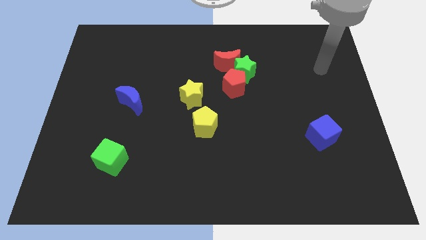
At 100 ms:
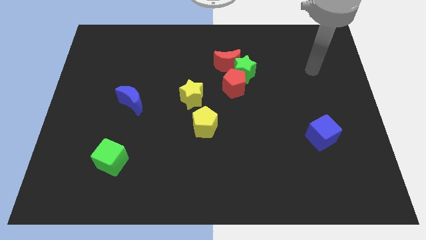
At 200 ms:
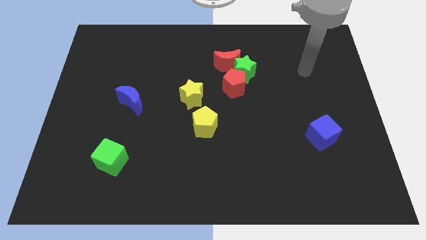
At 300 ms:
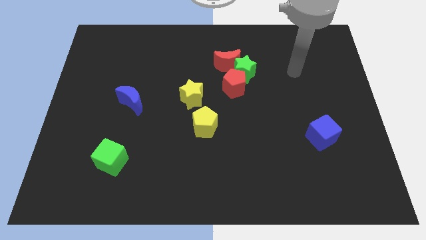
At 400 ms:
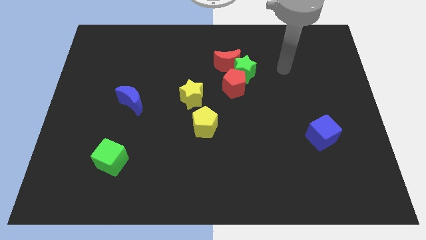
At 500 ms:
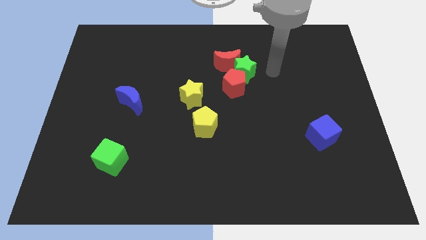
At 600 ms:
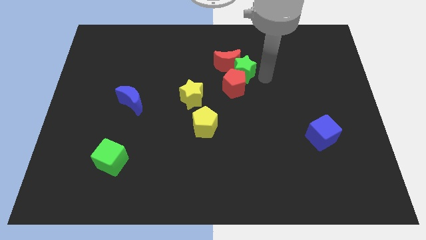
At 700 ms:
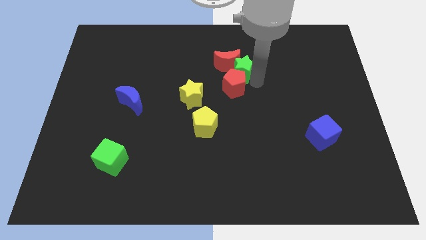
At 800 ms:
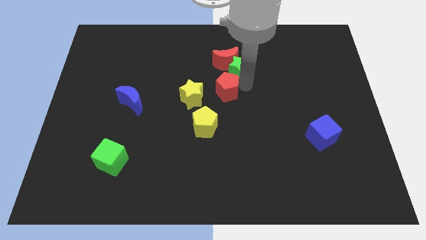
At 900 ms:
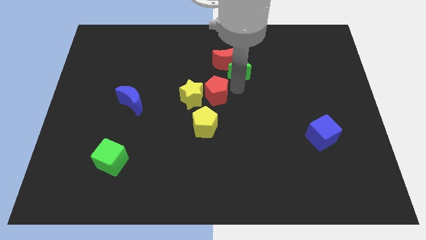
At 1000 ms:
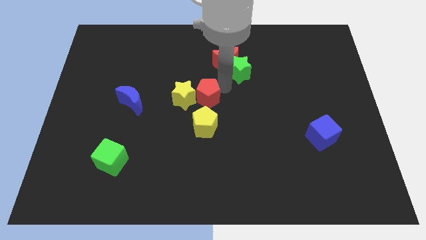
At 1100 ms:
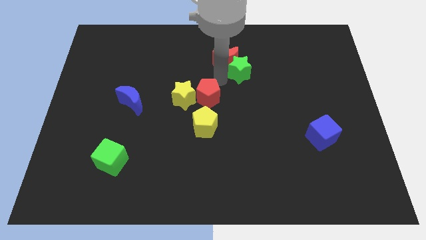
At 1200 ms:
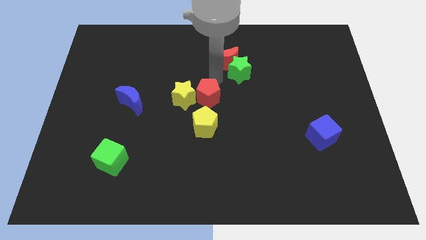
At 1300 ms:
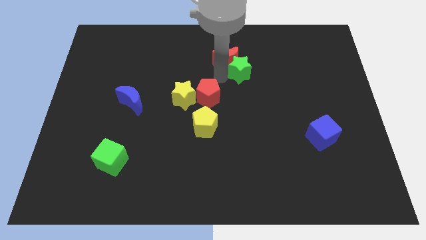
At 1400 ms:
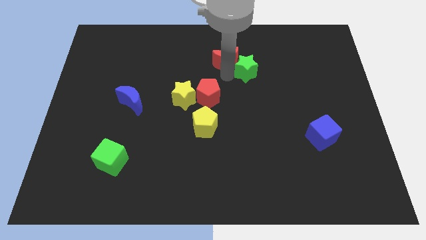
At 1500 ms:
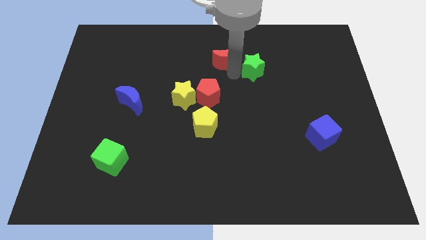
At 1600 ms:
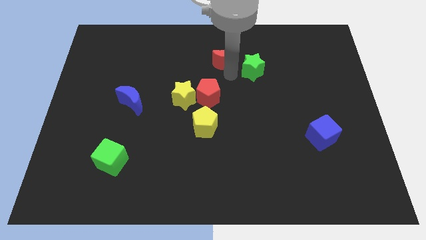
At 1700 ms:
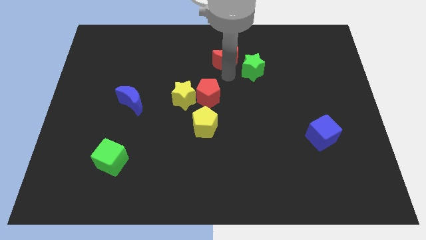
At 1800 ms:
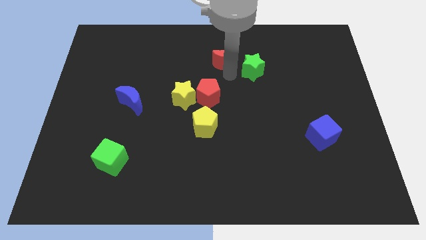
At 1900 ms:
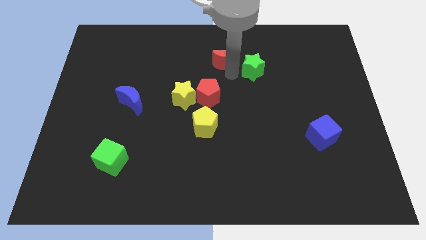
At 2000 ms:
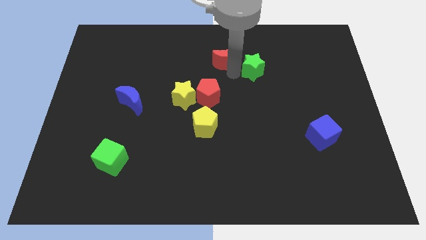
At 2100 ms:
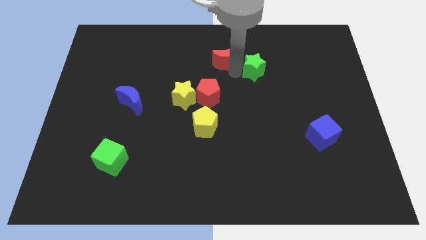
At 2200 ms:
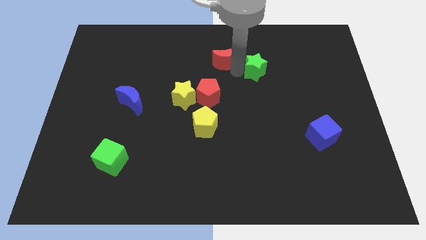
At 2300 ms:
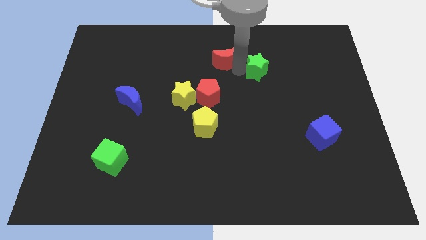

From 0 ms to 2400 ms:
pull the green star apart from the red moon and red pentagon

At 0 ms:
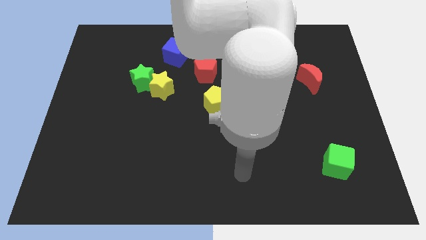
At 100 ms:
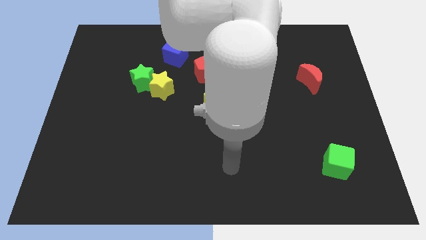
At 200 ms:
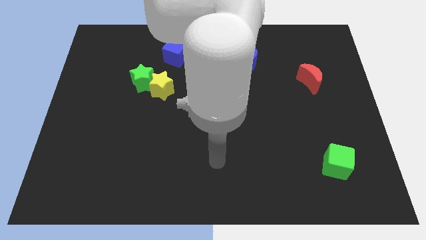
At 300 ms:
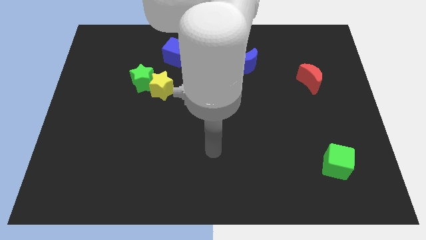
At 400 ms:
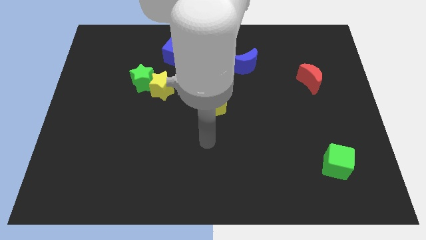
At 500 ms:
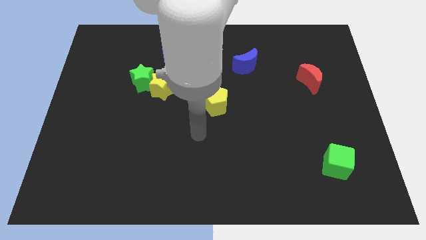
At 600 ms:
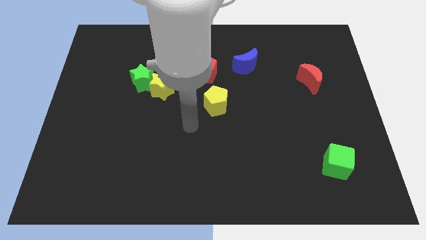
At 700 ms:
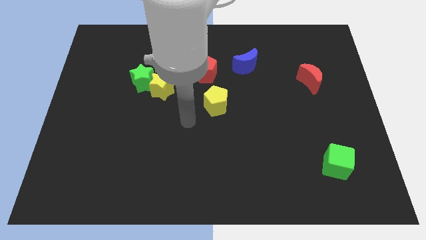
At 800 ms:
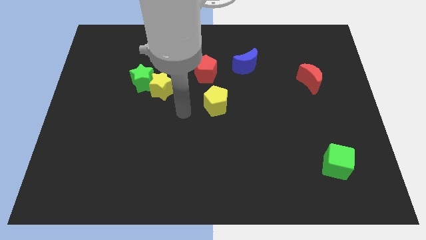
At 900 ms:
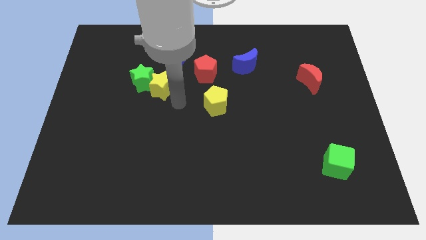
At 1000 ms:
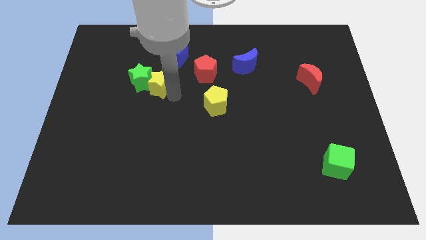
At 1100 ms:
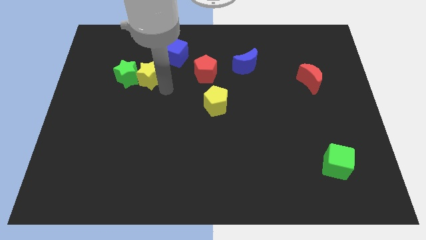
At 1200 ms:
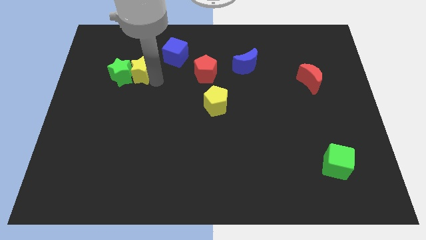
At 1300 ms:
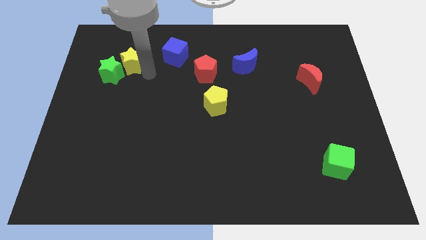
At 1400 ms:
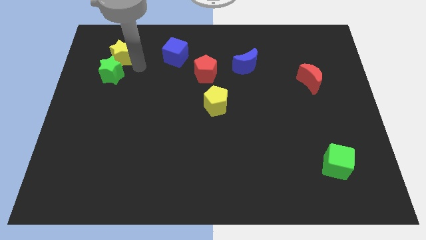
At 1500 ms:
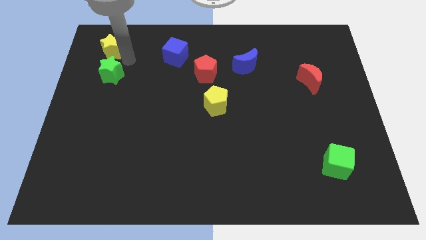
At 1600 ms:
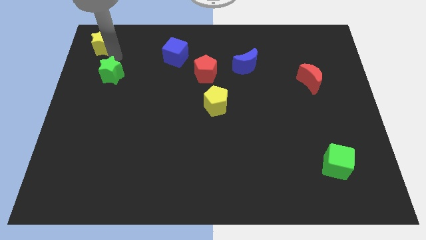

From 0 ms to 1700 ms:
pull the green star apart from the yellow star

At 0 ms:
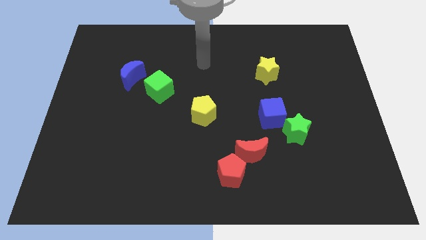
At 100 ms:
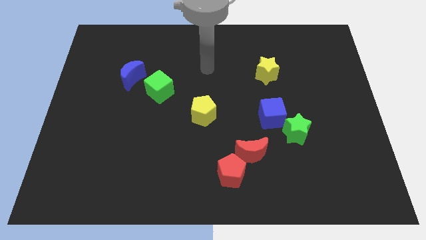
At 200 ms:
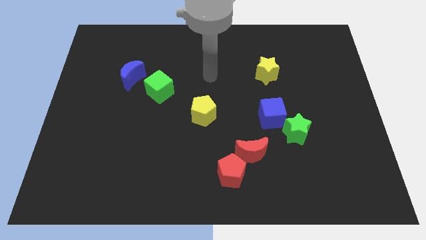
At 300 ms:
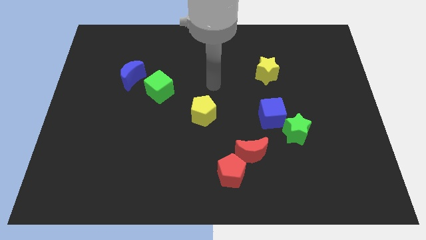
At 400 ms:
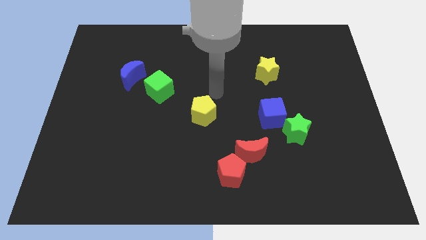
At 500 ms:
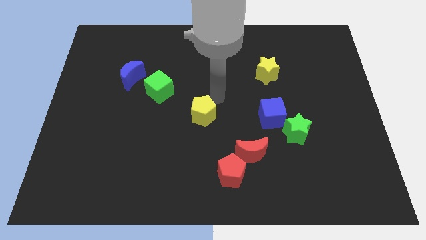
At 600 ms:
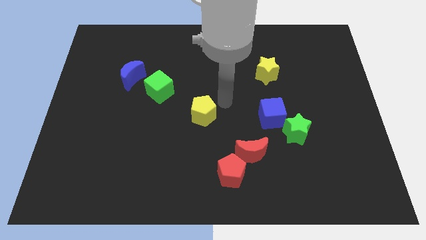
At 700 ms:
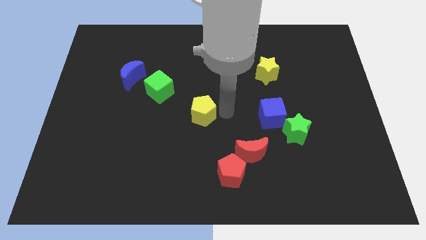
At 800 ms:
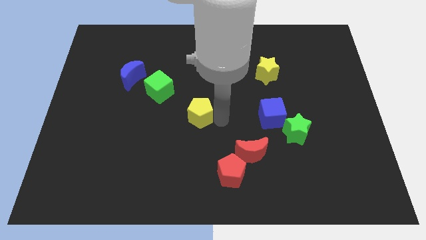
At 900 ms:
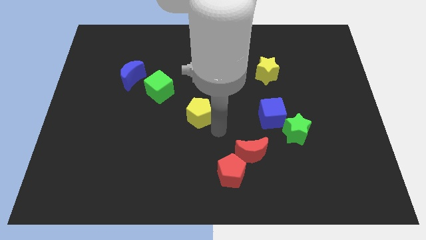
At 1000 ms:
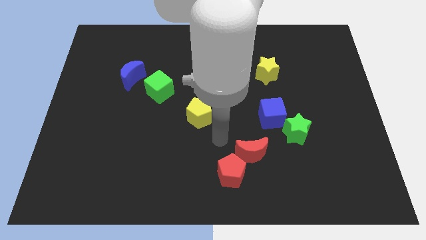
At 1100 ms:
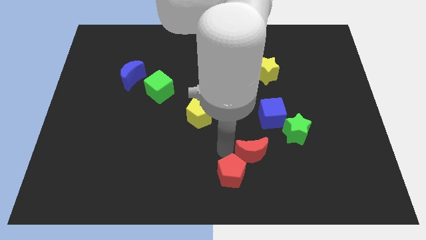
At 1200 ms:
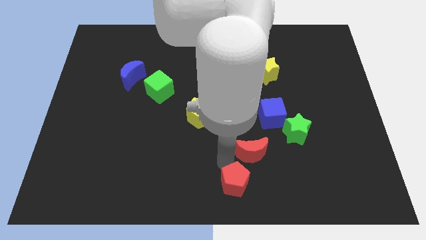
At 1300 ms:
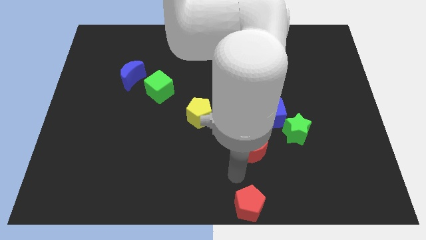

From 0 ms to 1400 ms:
pull the red moon apart from the red pentagon

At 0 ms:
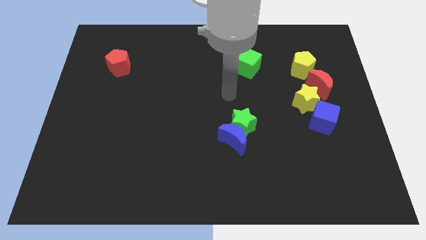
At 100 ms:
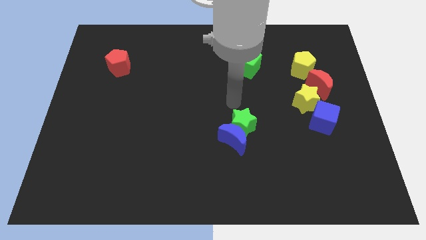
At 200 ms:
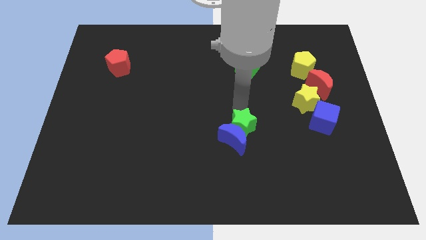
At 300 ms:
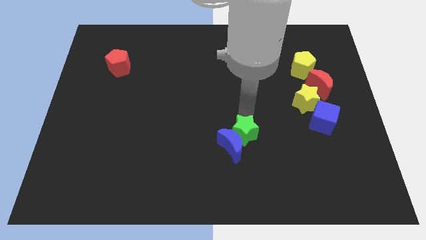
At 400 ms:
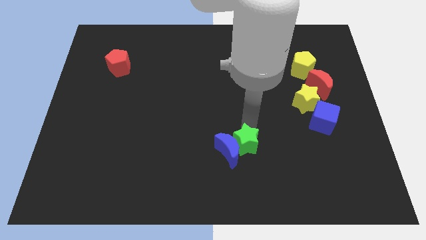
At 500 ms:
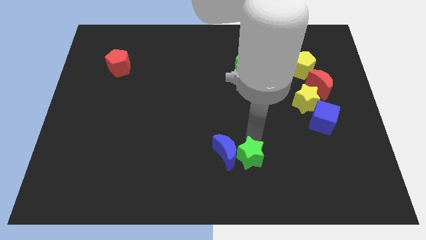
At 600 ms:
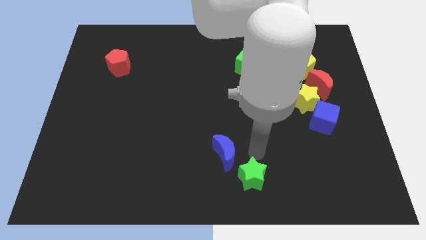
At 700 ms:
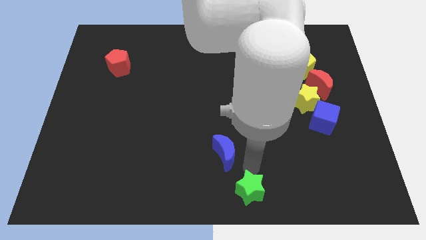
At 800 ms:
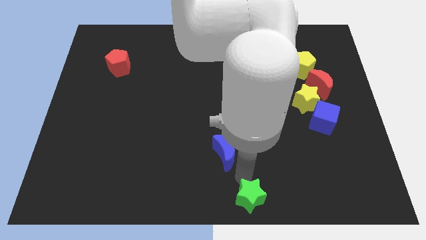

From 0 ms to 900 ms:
move the blue moon away from the green star

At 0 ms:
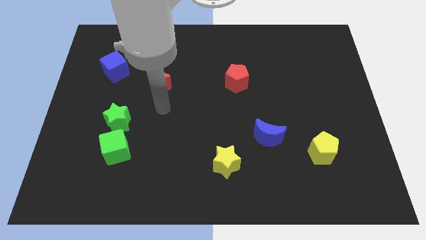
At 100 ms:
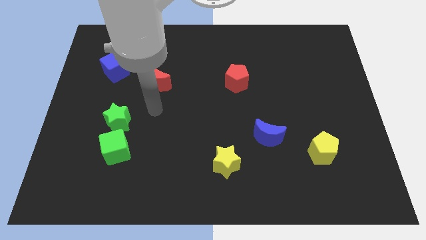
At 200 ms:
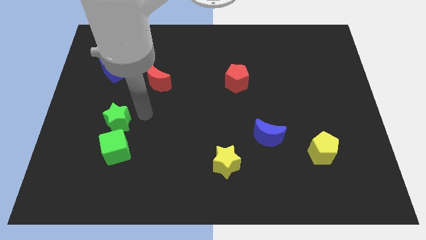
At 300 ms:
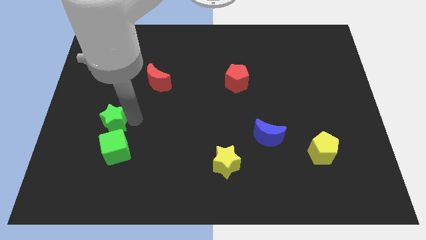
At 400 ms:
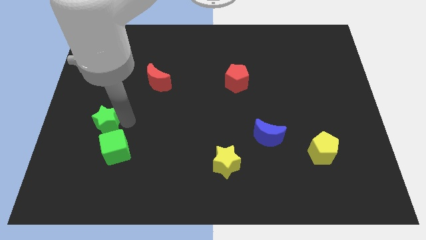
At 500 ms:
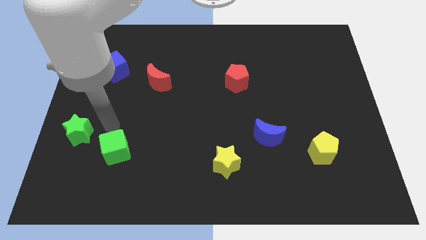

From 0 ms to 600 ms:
move the green cube away from the green star

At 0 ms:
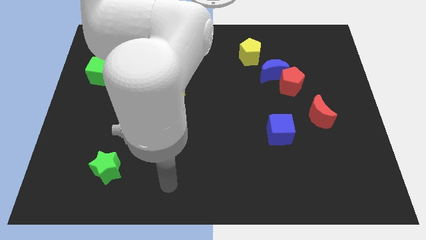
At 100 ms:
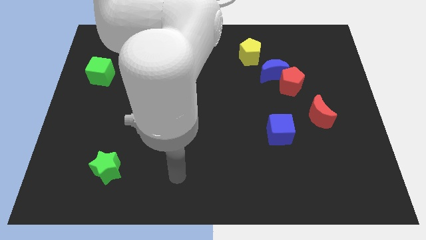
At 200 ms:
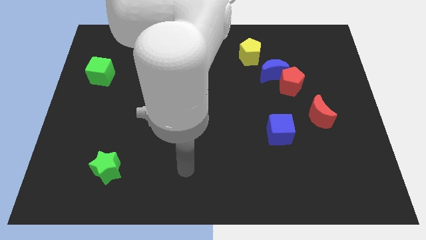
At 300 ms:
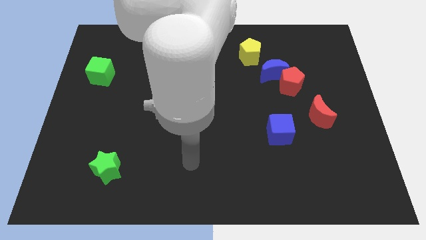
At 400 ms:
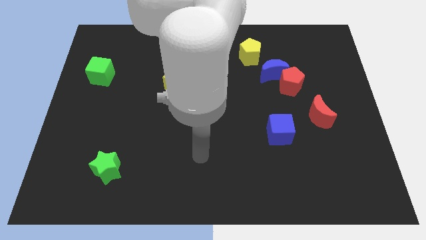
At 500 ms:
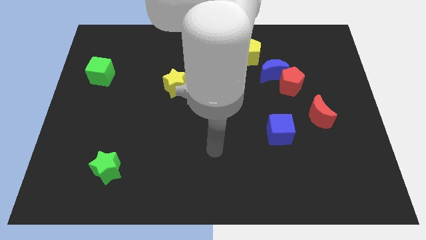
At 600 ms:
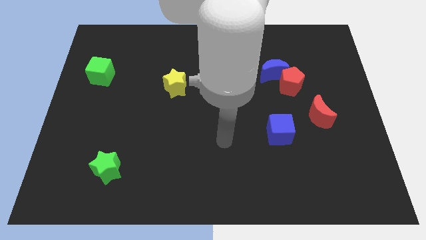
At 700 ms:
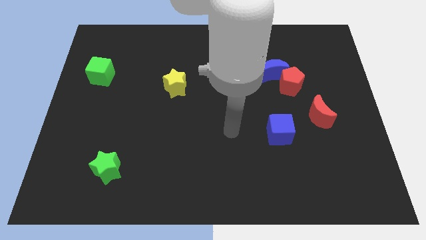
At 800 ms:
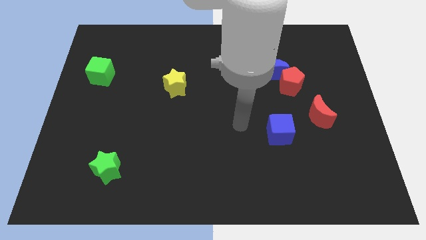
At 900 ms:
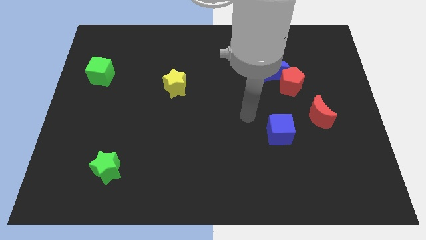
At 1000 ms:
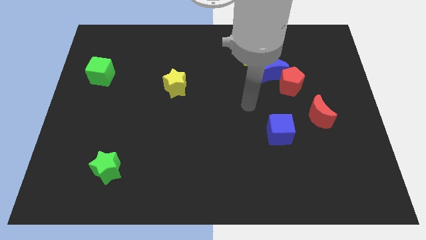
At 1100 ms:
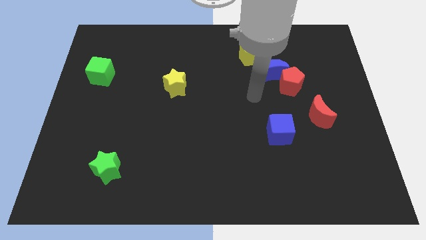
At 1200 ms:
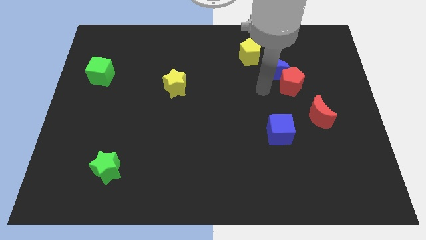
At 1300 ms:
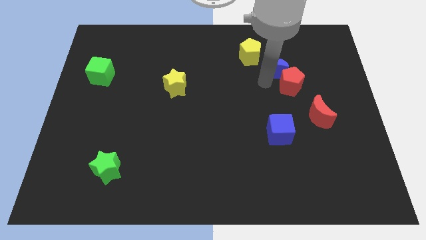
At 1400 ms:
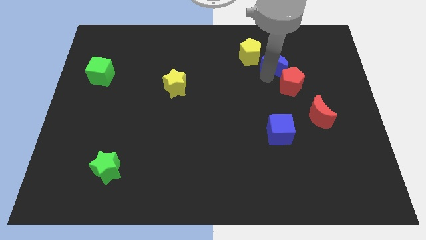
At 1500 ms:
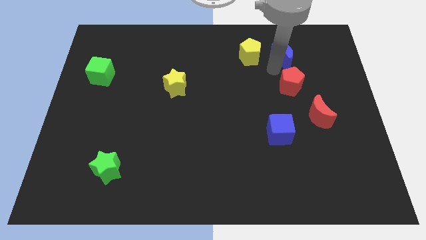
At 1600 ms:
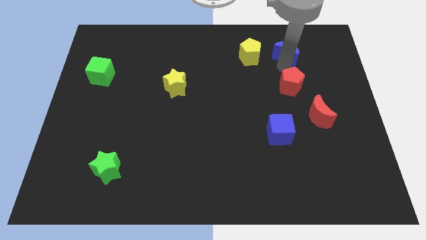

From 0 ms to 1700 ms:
pull the red pentagon apart from the blue moon

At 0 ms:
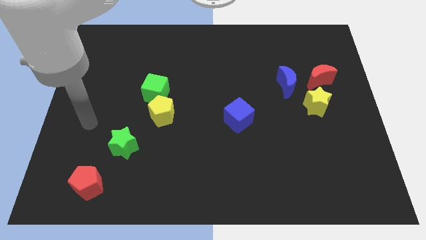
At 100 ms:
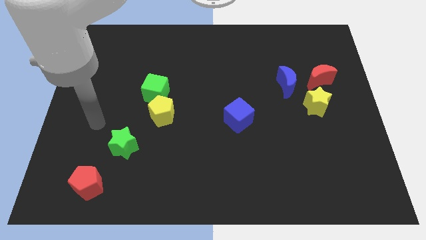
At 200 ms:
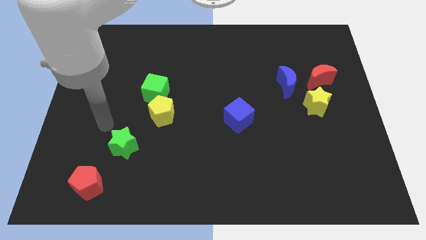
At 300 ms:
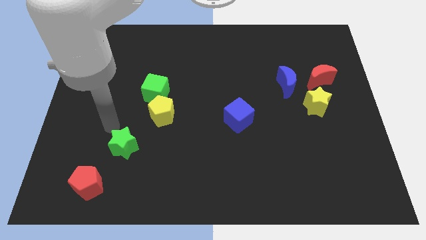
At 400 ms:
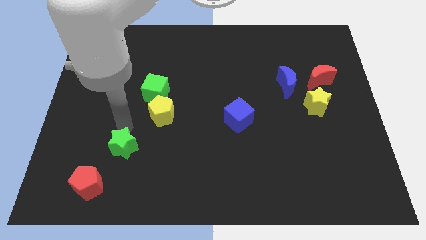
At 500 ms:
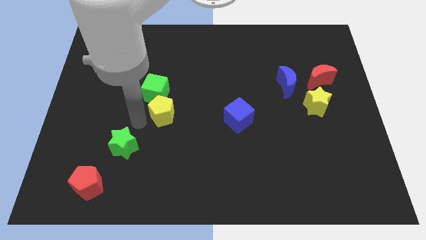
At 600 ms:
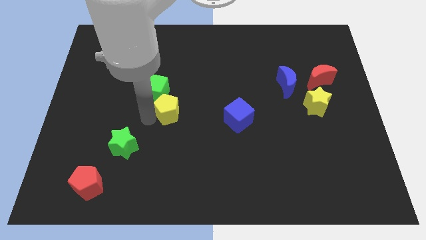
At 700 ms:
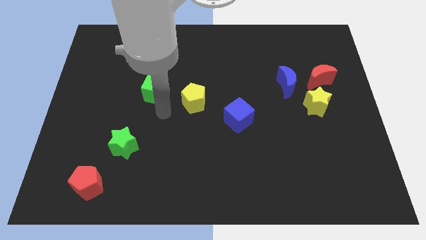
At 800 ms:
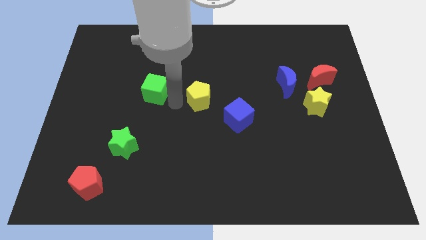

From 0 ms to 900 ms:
move the green cube away from the yellow pentagon
